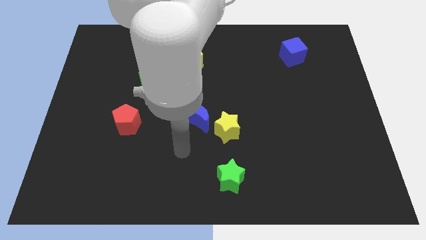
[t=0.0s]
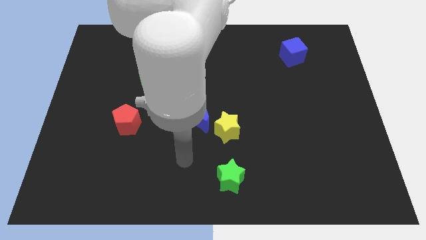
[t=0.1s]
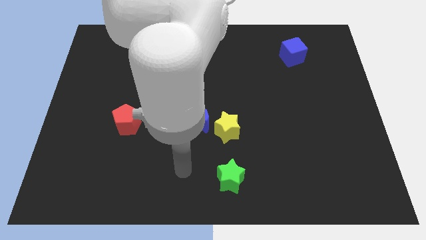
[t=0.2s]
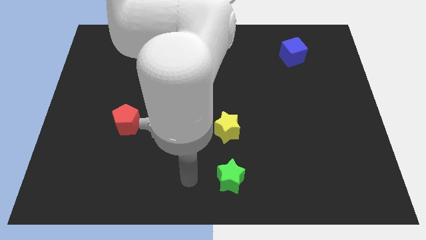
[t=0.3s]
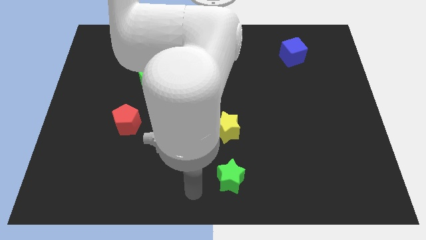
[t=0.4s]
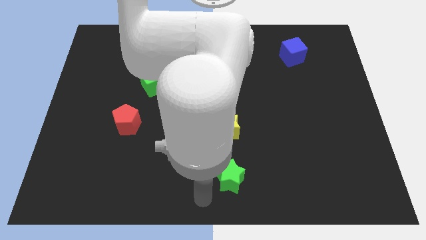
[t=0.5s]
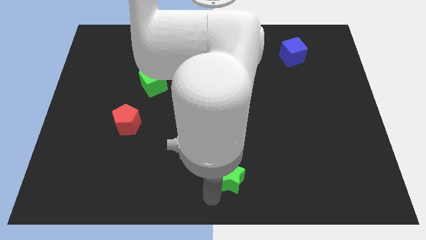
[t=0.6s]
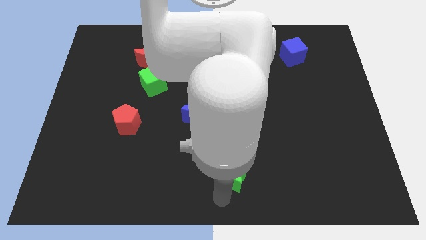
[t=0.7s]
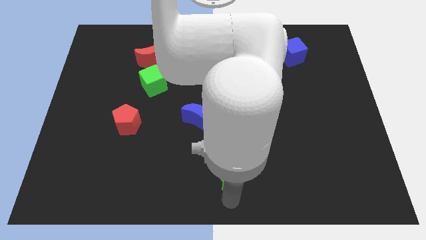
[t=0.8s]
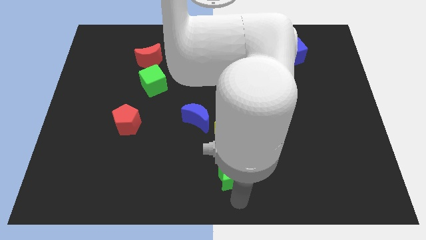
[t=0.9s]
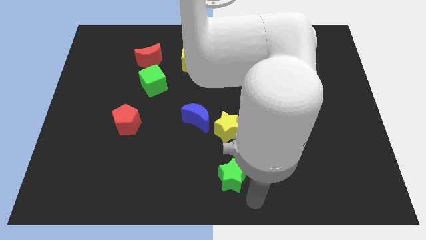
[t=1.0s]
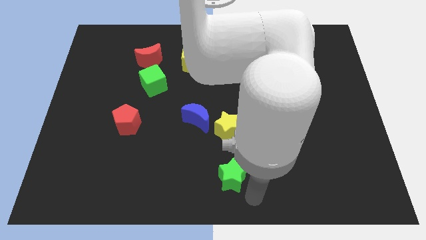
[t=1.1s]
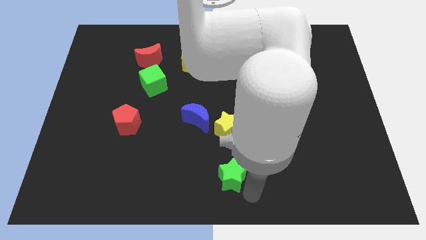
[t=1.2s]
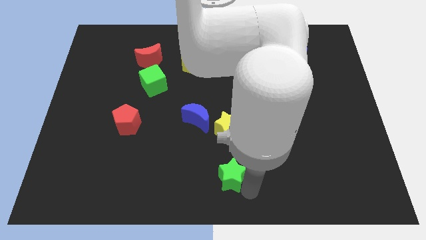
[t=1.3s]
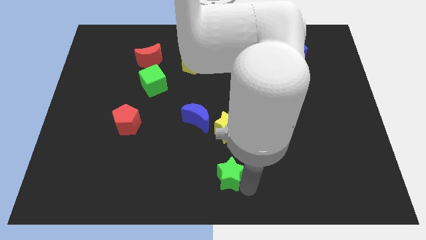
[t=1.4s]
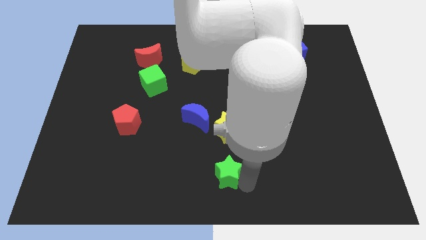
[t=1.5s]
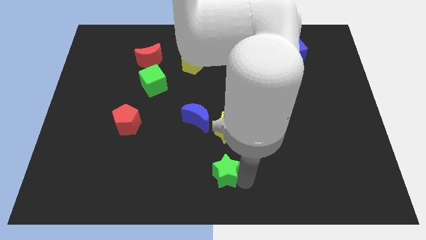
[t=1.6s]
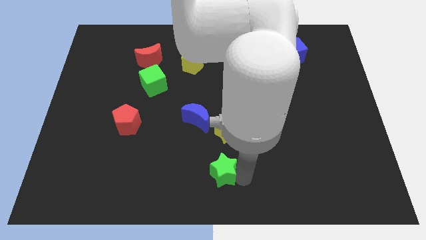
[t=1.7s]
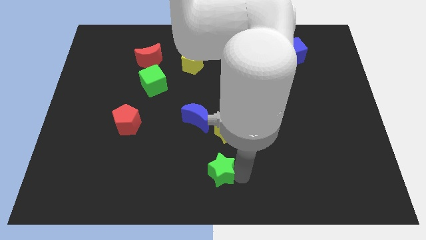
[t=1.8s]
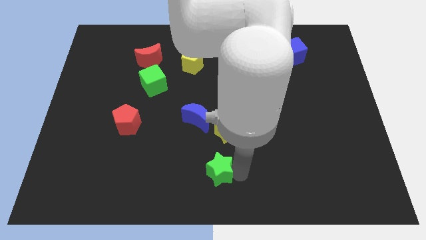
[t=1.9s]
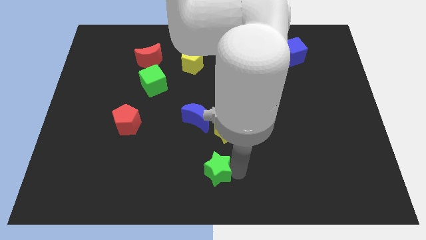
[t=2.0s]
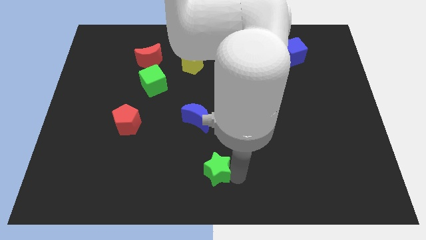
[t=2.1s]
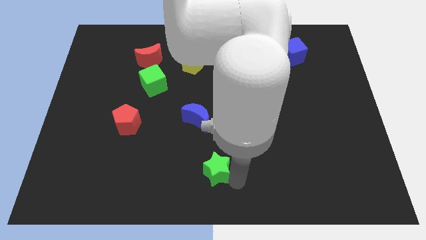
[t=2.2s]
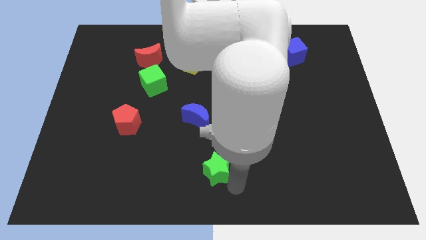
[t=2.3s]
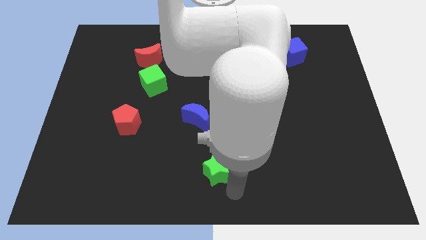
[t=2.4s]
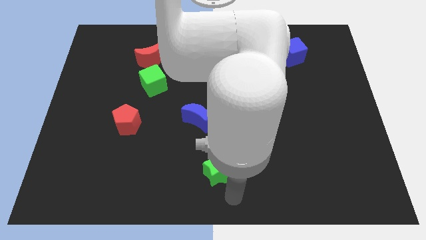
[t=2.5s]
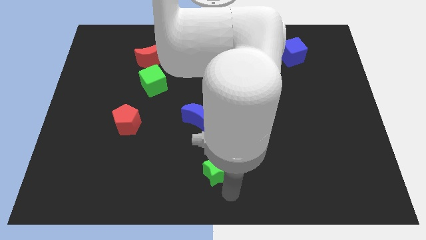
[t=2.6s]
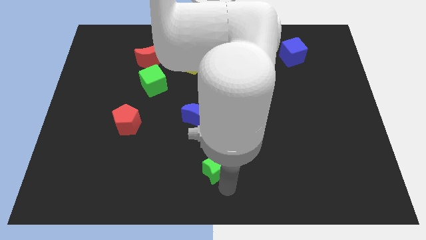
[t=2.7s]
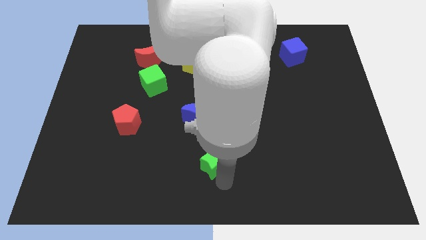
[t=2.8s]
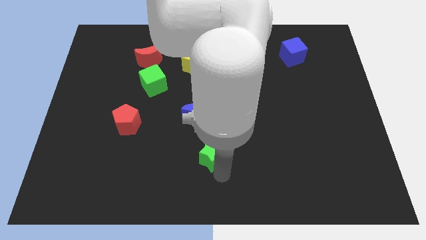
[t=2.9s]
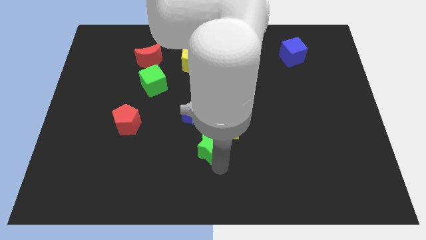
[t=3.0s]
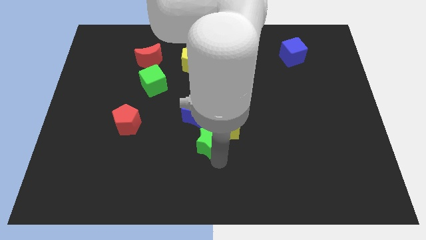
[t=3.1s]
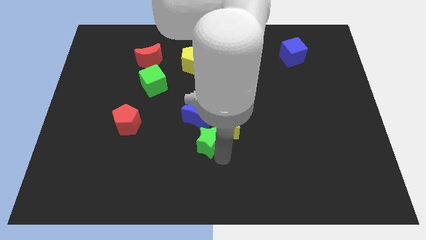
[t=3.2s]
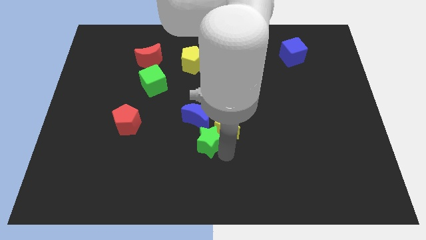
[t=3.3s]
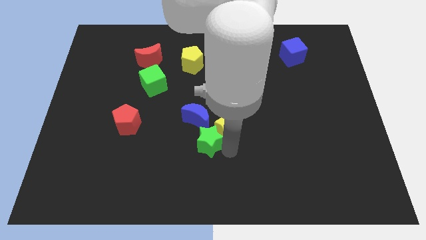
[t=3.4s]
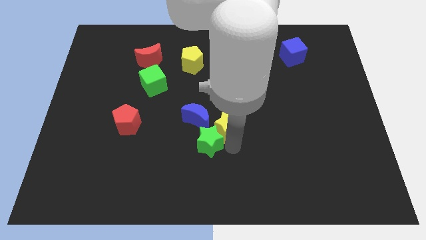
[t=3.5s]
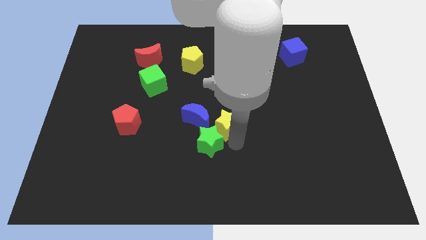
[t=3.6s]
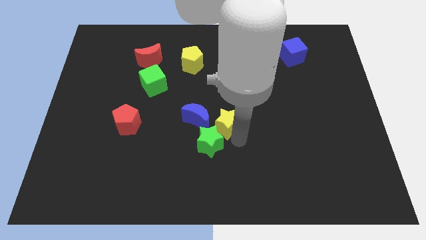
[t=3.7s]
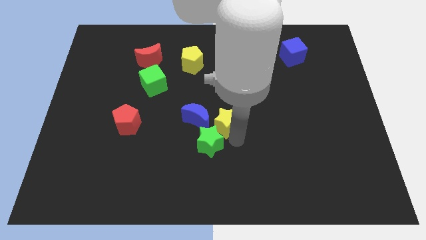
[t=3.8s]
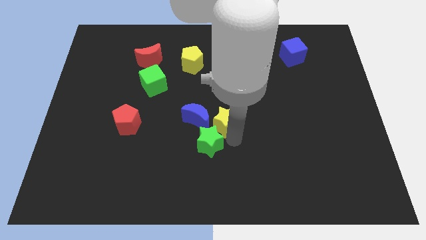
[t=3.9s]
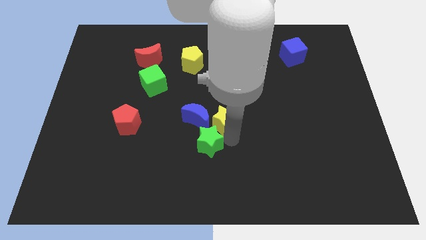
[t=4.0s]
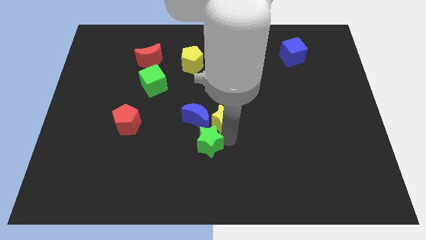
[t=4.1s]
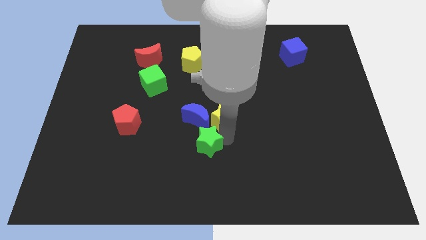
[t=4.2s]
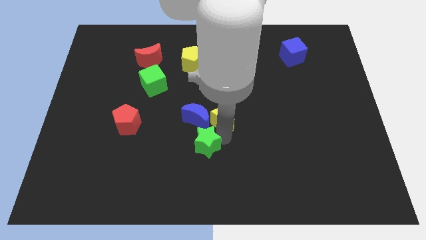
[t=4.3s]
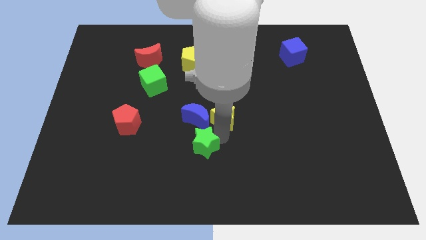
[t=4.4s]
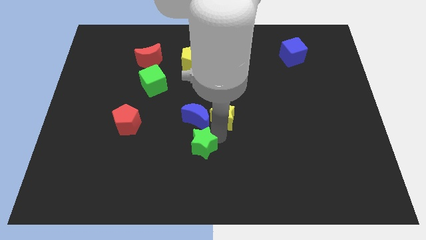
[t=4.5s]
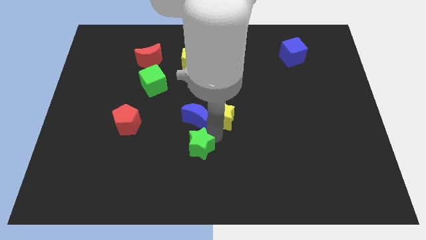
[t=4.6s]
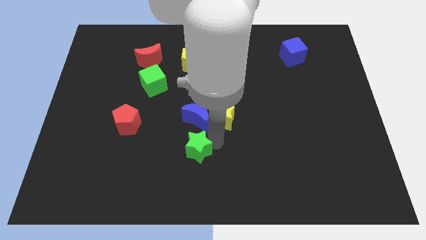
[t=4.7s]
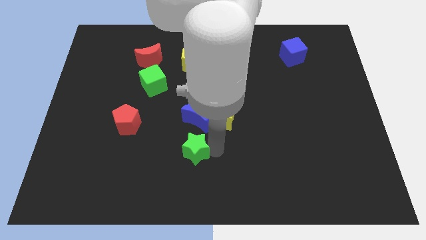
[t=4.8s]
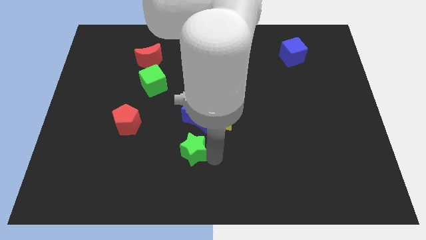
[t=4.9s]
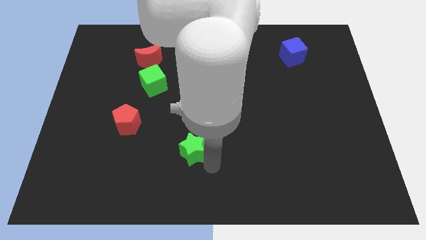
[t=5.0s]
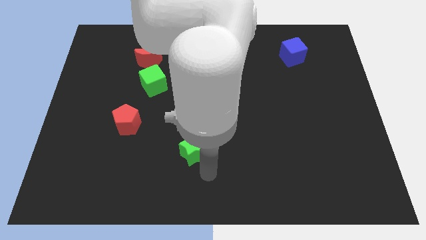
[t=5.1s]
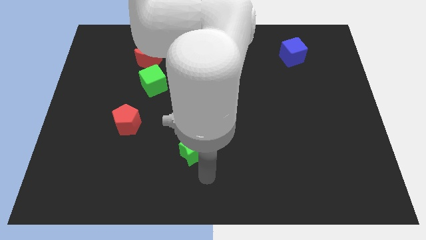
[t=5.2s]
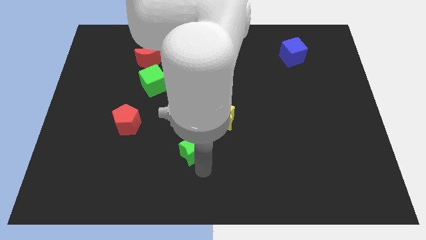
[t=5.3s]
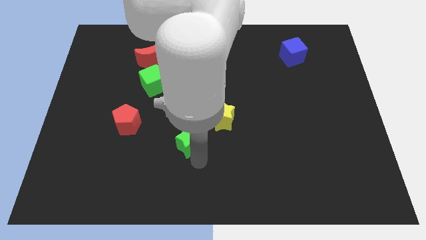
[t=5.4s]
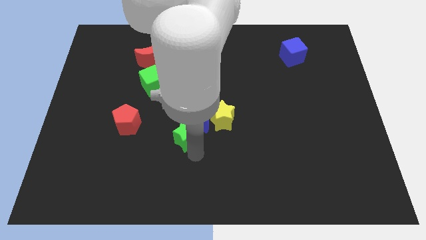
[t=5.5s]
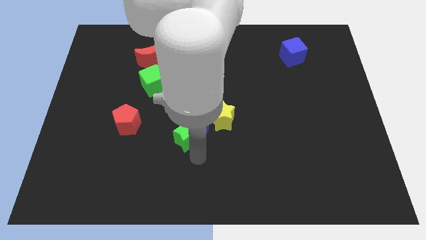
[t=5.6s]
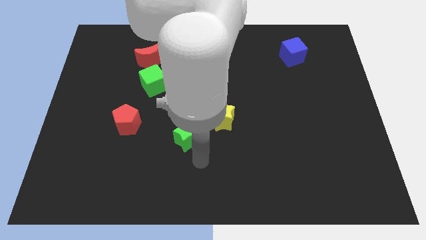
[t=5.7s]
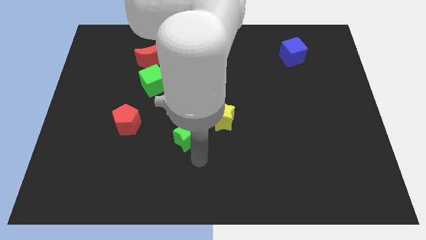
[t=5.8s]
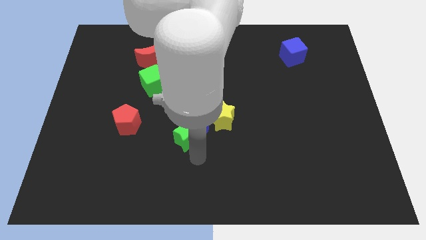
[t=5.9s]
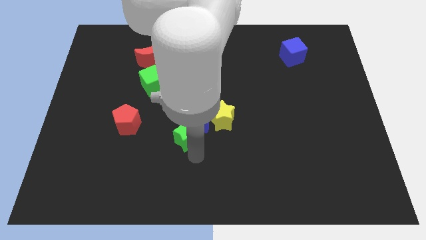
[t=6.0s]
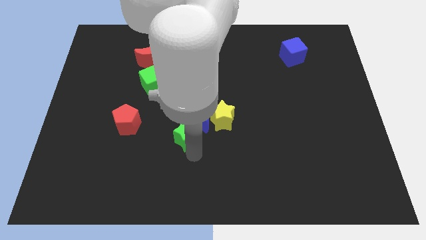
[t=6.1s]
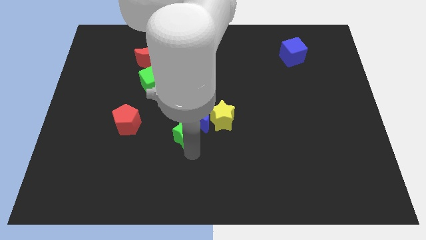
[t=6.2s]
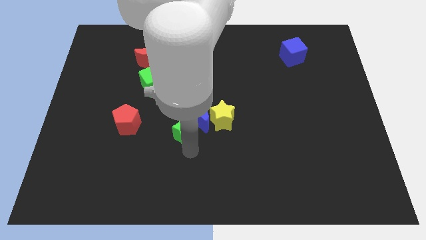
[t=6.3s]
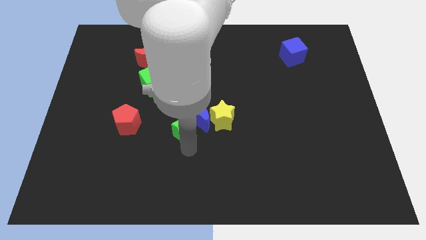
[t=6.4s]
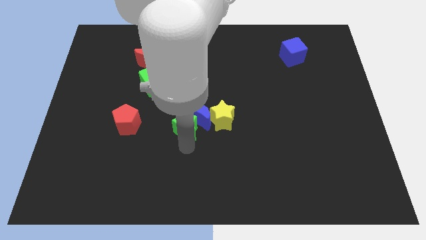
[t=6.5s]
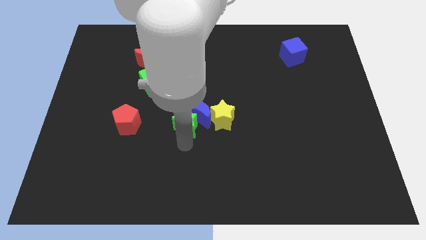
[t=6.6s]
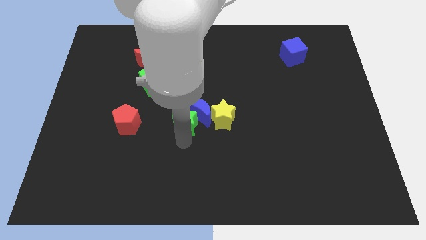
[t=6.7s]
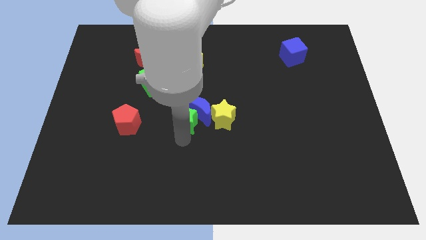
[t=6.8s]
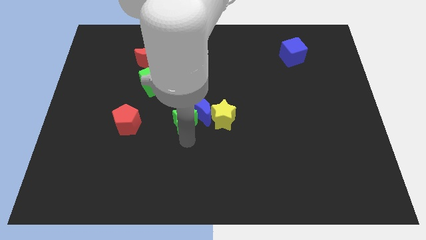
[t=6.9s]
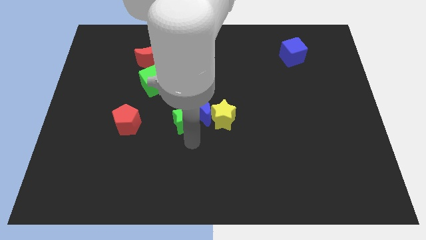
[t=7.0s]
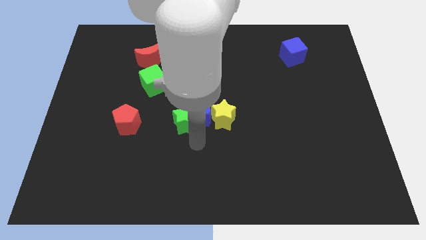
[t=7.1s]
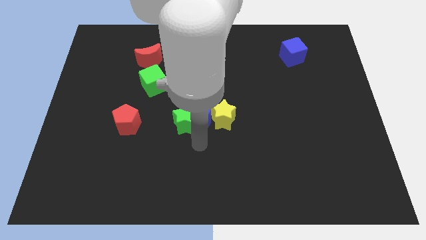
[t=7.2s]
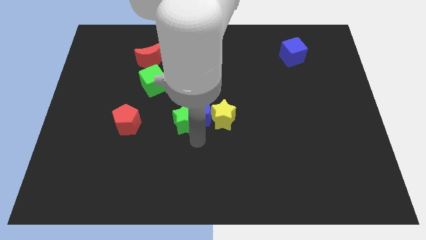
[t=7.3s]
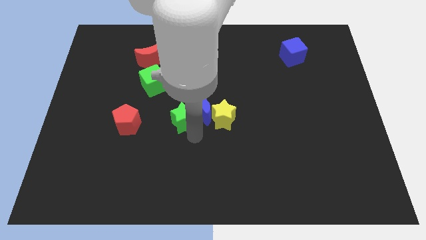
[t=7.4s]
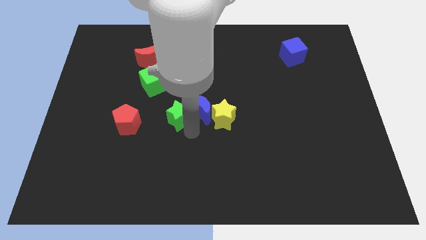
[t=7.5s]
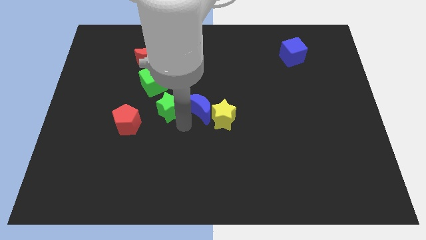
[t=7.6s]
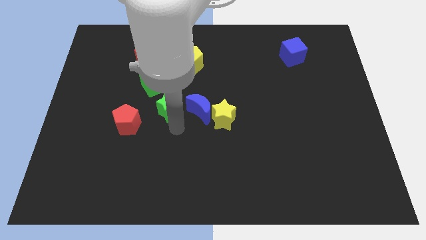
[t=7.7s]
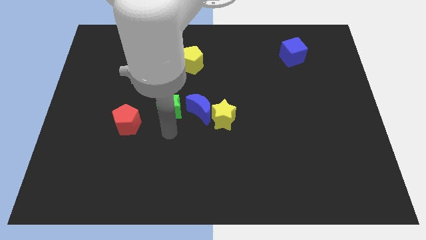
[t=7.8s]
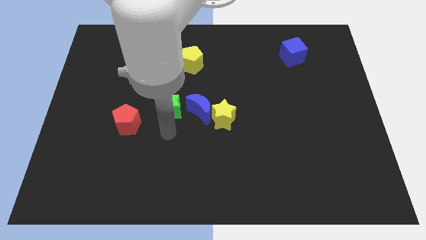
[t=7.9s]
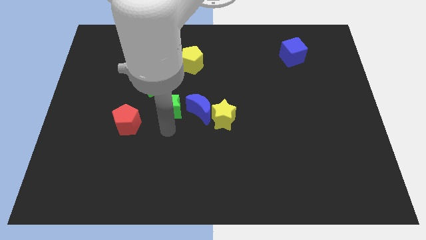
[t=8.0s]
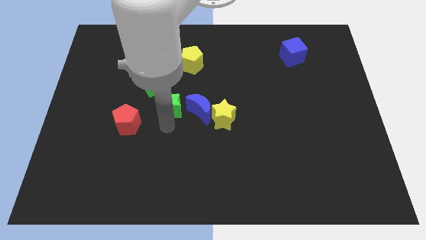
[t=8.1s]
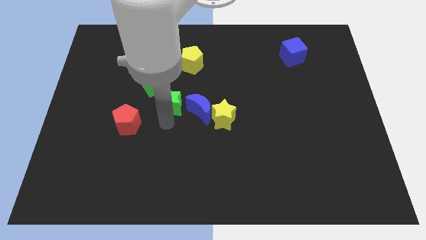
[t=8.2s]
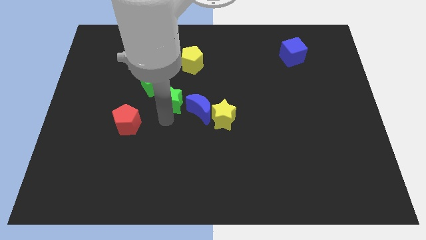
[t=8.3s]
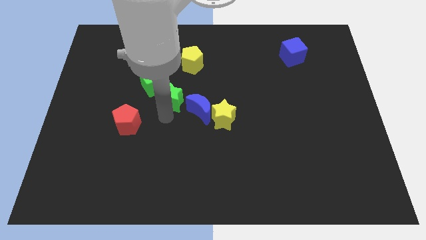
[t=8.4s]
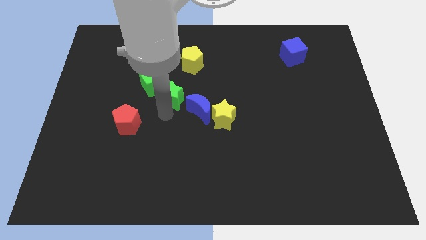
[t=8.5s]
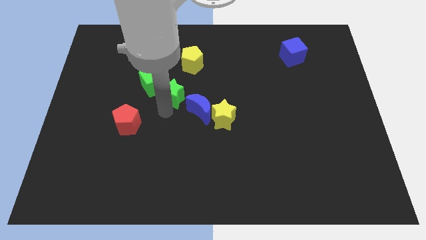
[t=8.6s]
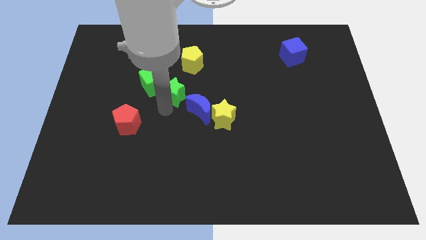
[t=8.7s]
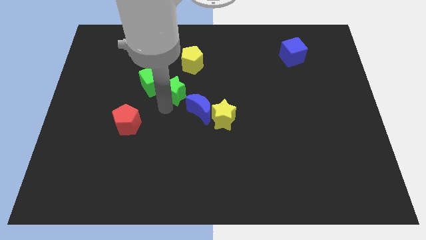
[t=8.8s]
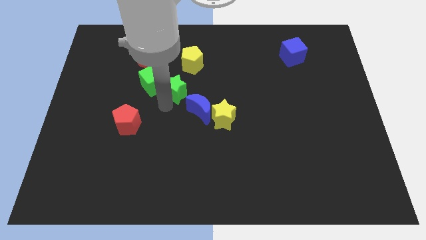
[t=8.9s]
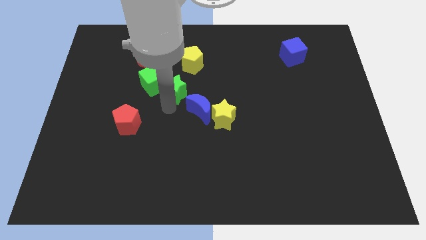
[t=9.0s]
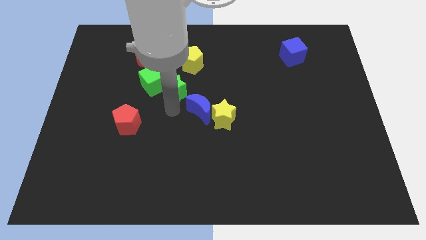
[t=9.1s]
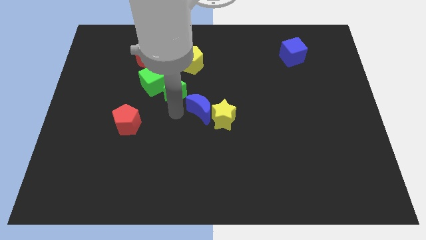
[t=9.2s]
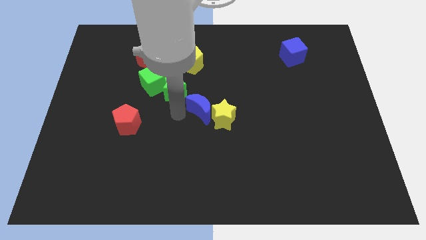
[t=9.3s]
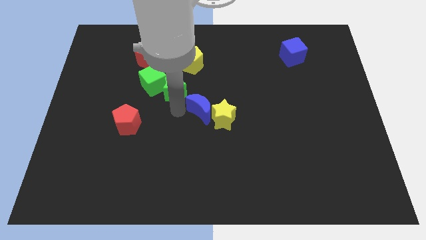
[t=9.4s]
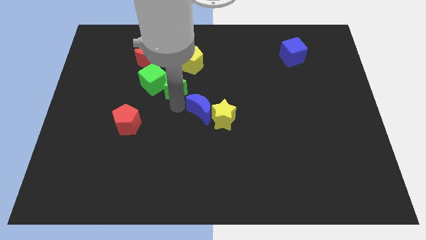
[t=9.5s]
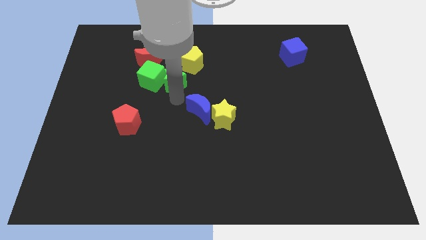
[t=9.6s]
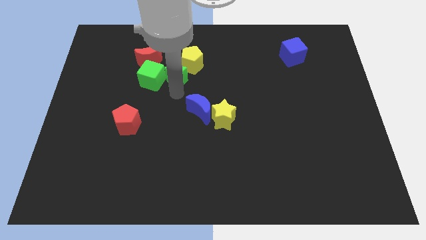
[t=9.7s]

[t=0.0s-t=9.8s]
push the green star to the top right side of the green cube
